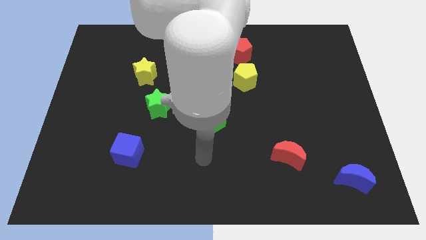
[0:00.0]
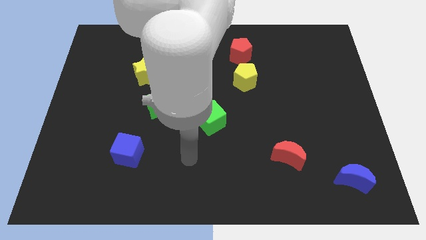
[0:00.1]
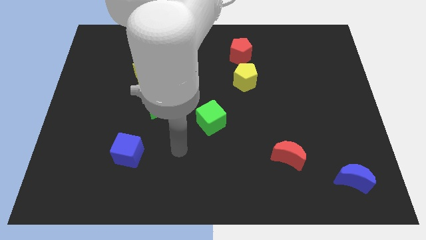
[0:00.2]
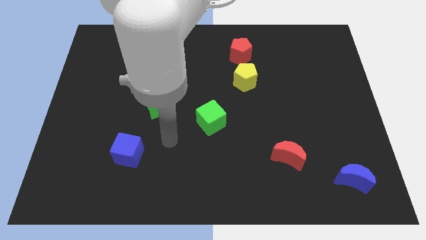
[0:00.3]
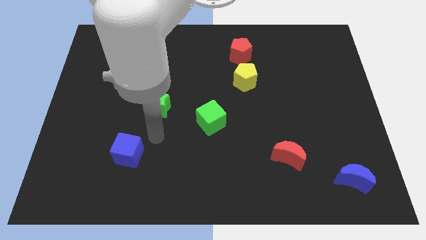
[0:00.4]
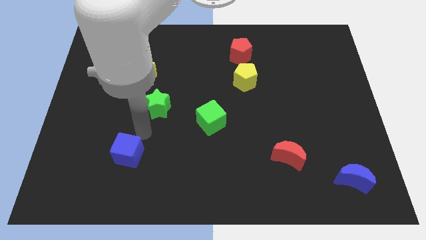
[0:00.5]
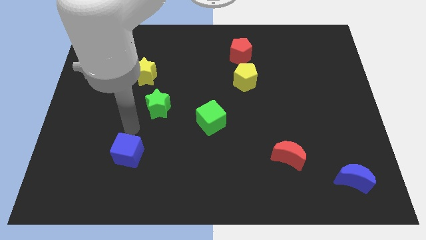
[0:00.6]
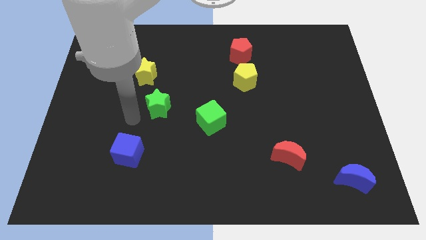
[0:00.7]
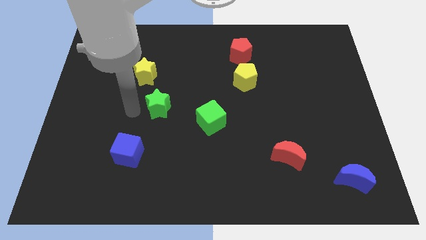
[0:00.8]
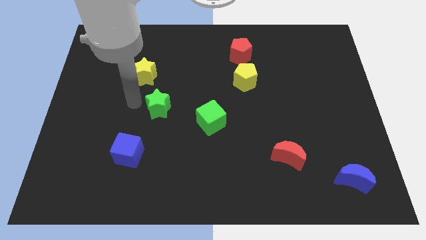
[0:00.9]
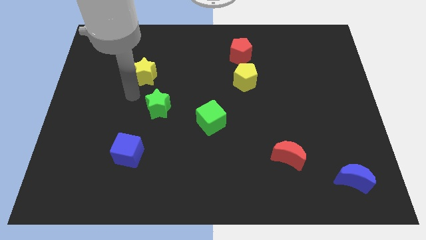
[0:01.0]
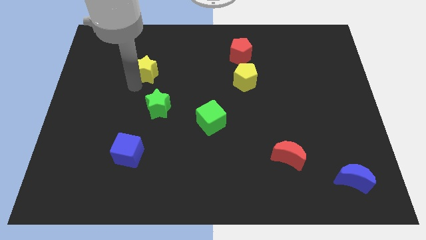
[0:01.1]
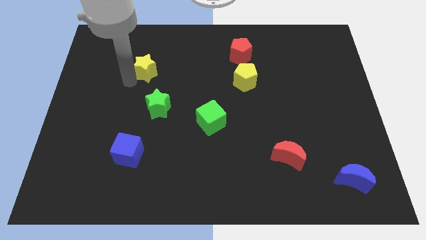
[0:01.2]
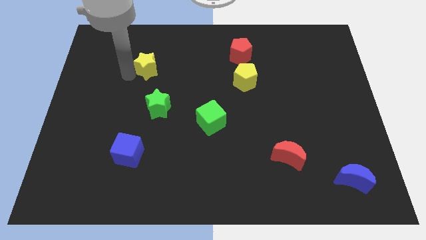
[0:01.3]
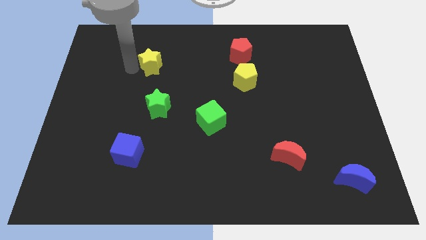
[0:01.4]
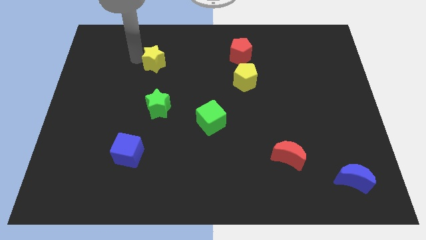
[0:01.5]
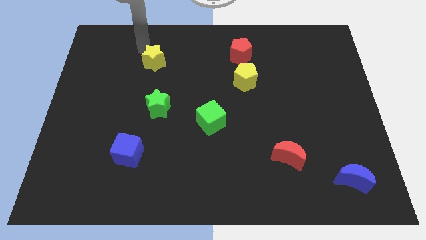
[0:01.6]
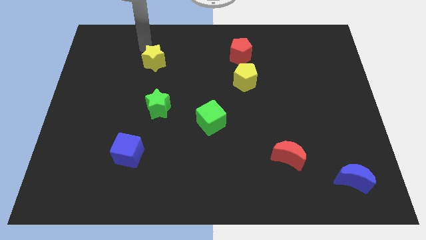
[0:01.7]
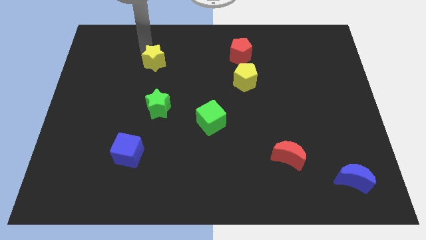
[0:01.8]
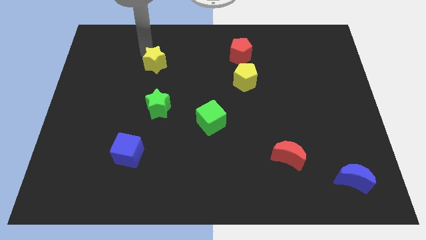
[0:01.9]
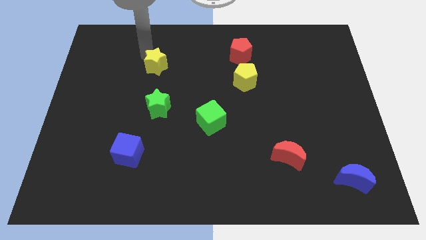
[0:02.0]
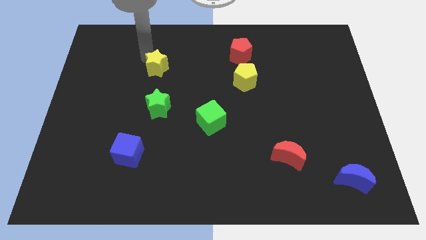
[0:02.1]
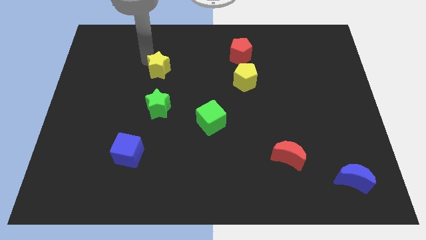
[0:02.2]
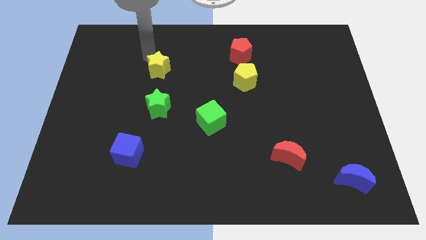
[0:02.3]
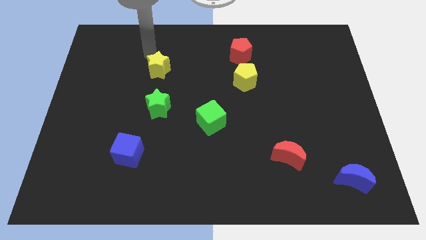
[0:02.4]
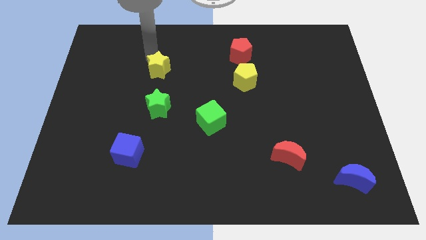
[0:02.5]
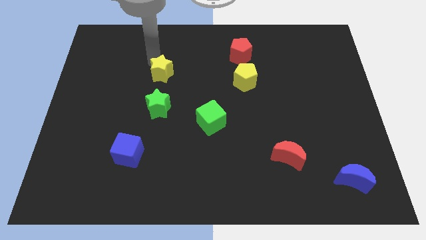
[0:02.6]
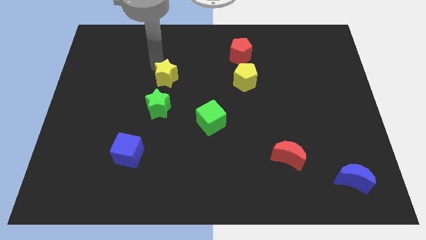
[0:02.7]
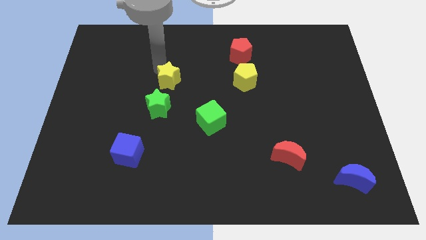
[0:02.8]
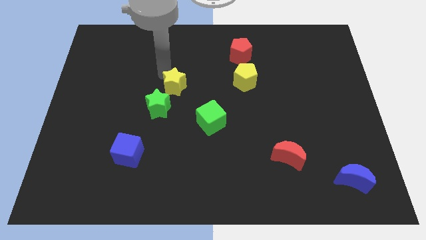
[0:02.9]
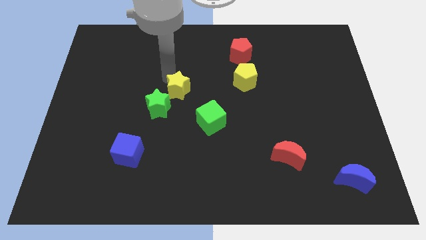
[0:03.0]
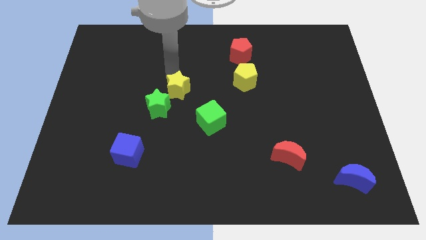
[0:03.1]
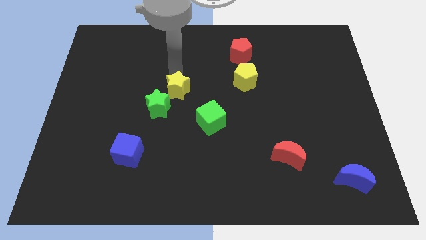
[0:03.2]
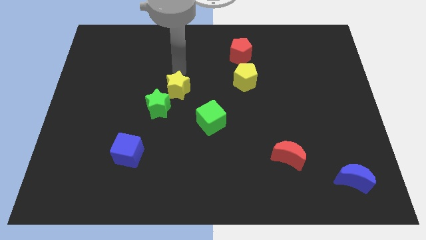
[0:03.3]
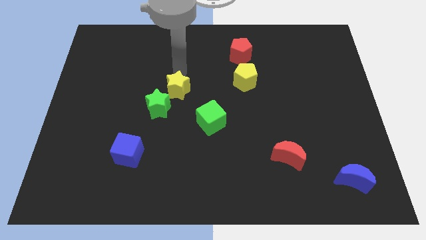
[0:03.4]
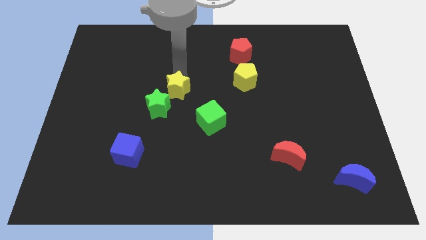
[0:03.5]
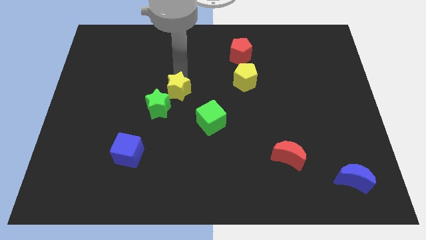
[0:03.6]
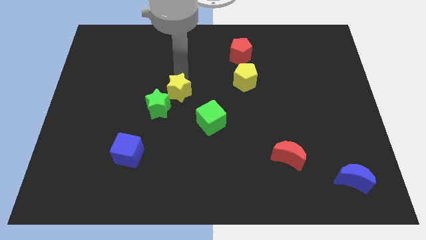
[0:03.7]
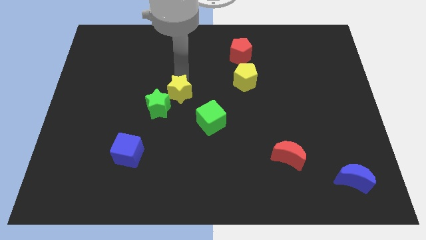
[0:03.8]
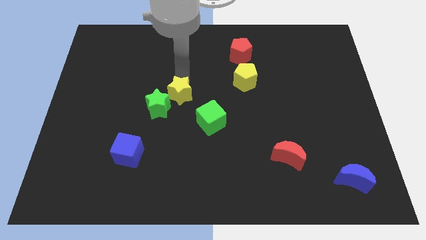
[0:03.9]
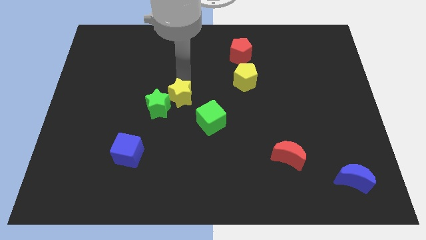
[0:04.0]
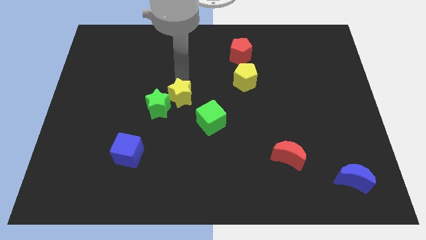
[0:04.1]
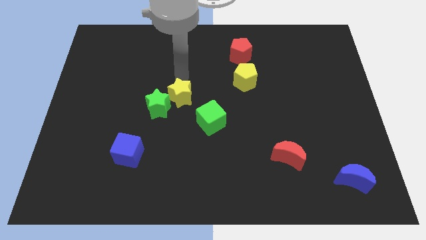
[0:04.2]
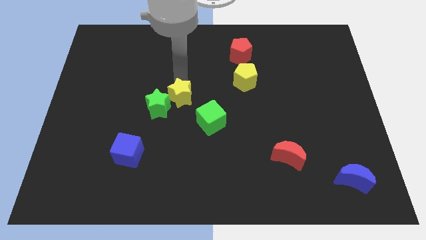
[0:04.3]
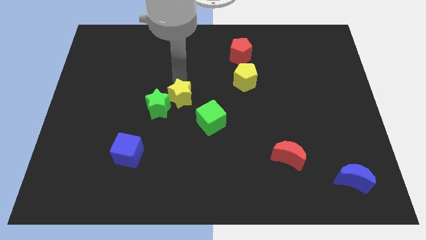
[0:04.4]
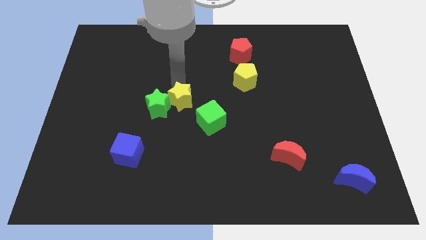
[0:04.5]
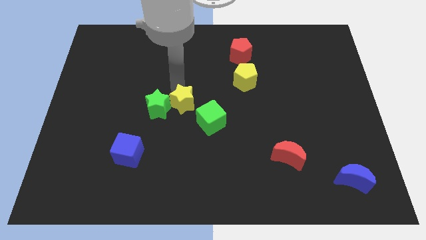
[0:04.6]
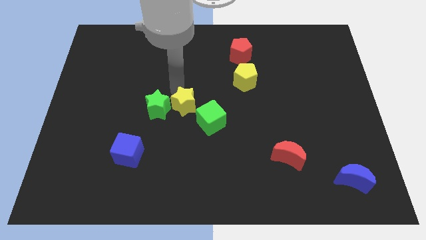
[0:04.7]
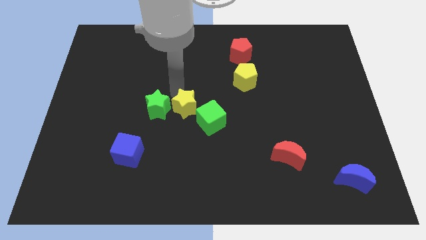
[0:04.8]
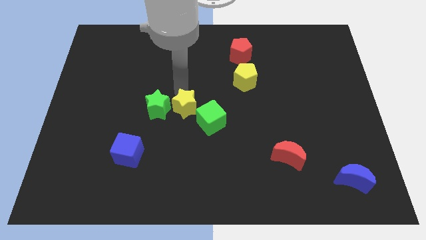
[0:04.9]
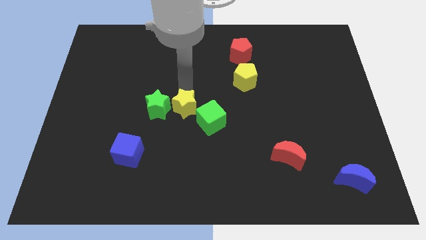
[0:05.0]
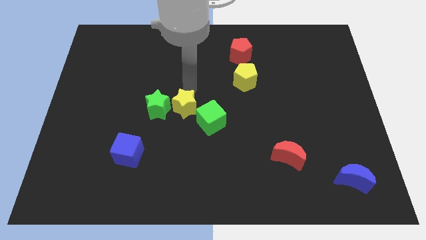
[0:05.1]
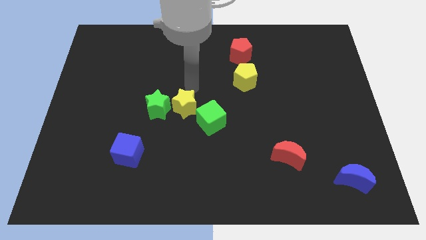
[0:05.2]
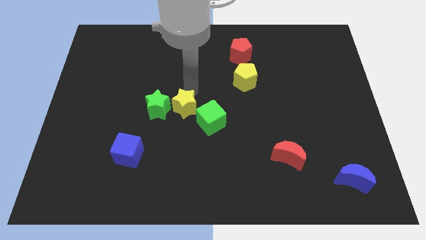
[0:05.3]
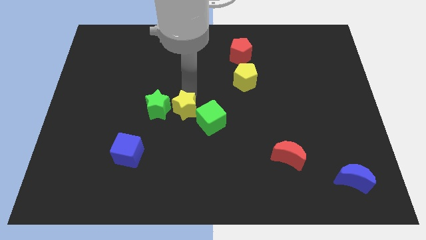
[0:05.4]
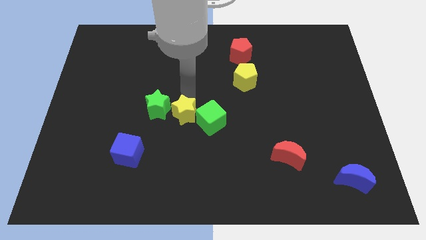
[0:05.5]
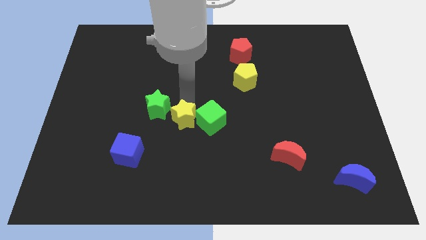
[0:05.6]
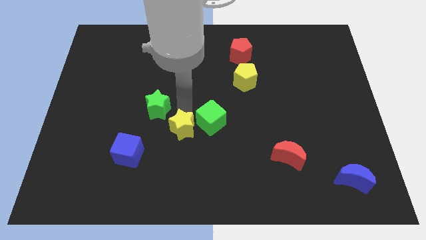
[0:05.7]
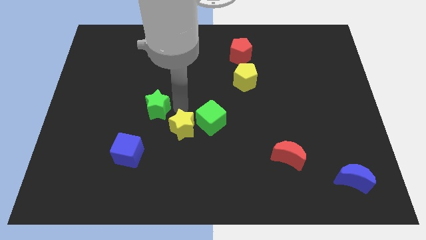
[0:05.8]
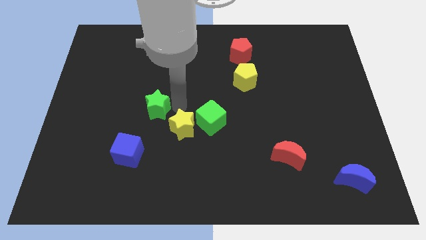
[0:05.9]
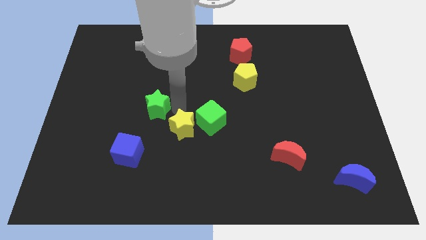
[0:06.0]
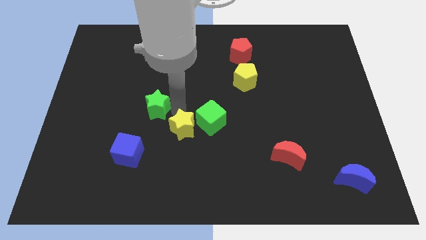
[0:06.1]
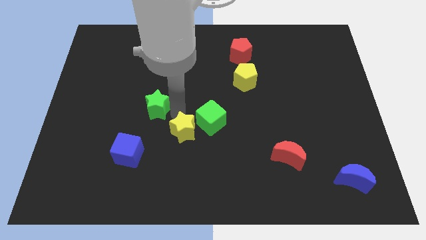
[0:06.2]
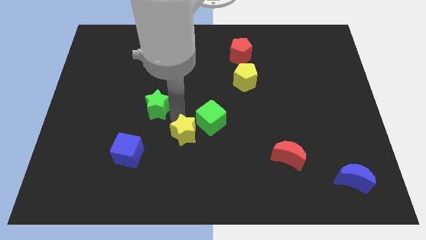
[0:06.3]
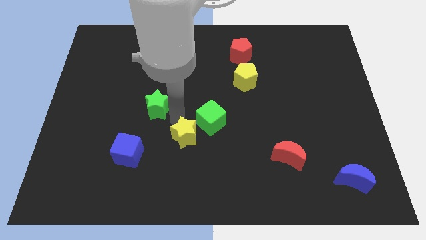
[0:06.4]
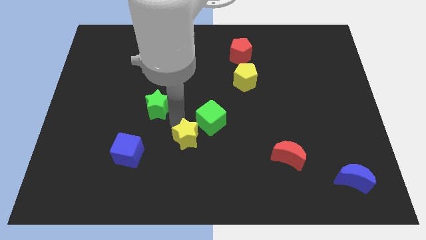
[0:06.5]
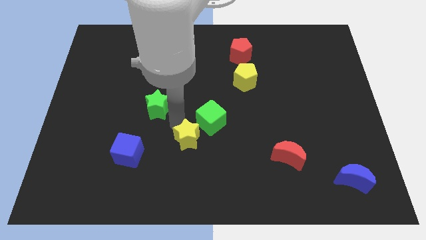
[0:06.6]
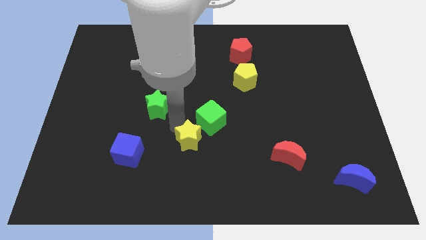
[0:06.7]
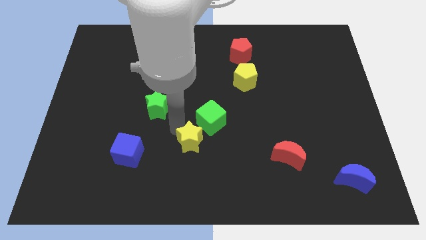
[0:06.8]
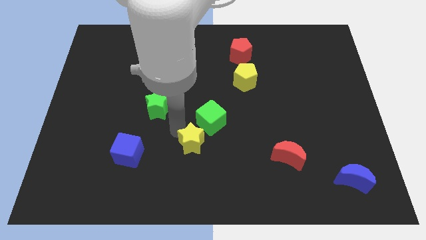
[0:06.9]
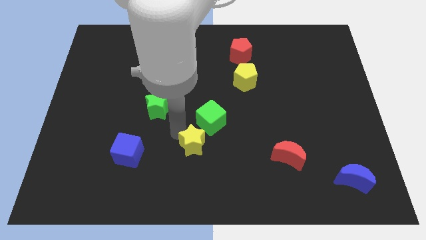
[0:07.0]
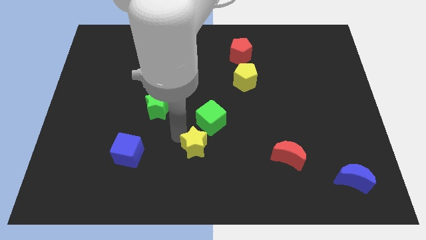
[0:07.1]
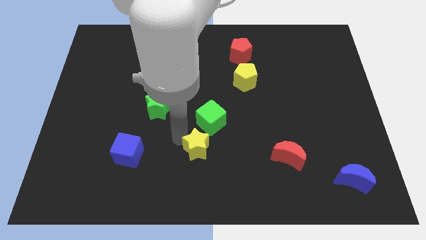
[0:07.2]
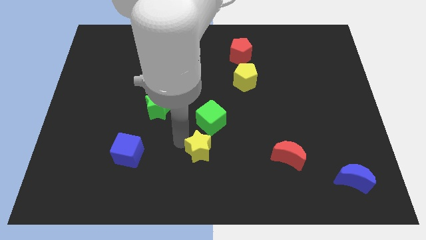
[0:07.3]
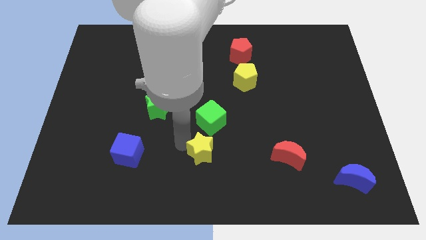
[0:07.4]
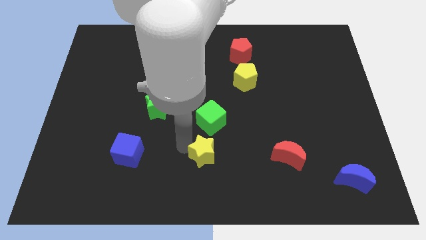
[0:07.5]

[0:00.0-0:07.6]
move the yellow star to the bottom

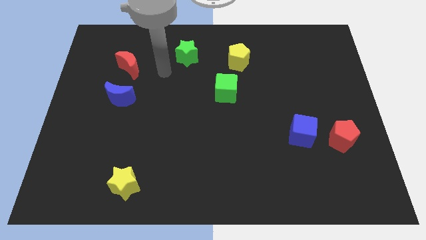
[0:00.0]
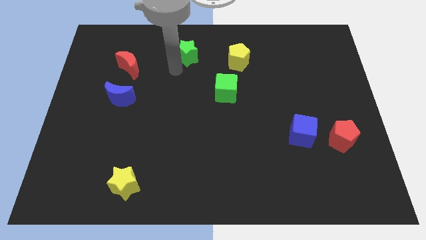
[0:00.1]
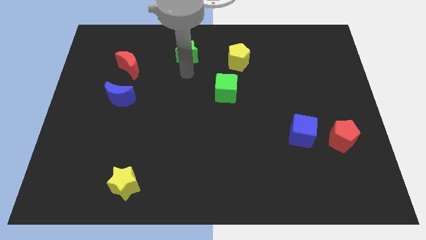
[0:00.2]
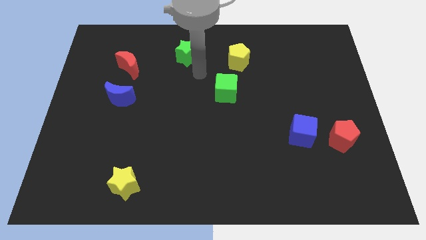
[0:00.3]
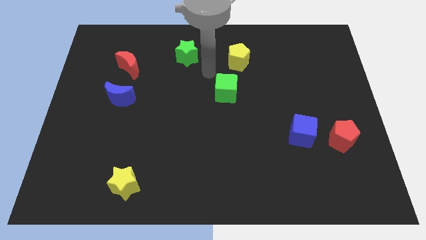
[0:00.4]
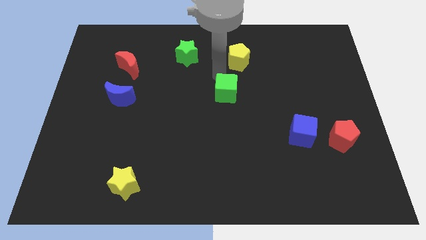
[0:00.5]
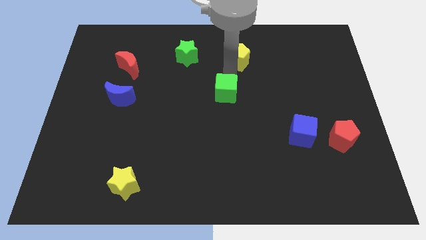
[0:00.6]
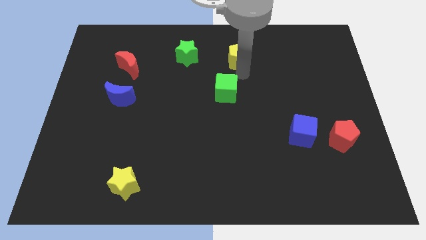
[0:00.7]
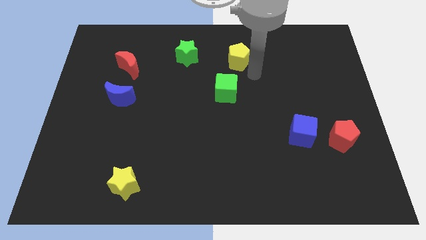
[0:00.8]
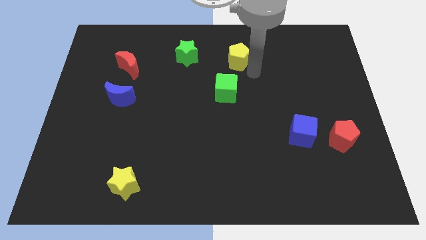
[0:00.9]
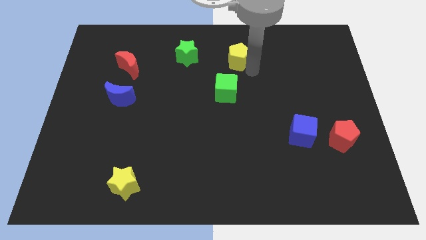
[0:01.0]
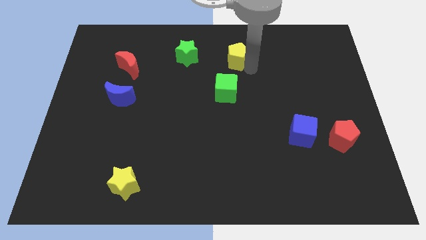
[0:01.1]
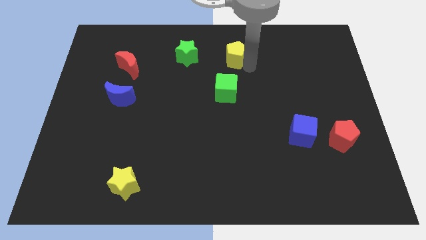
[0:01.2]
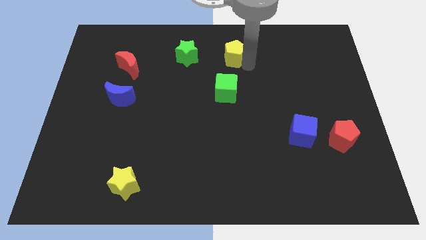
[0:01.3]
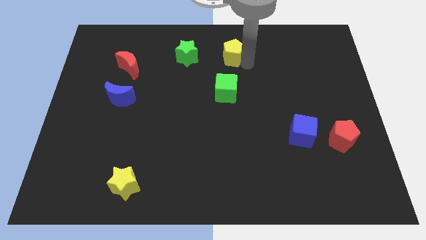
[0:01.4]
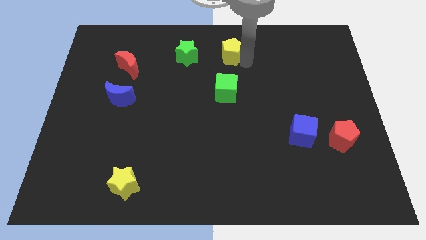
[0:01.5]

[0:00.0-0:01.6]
push the yellow pentagon to the towards your base
